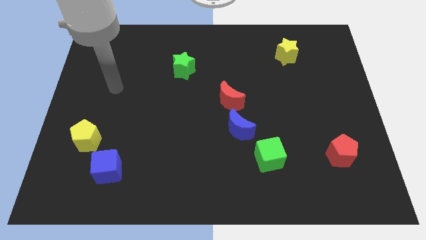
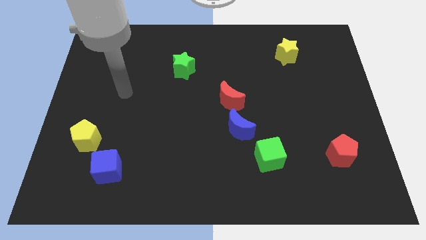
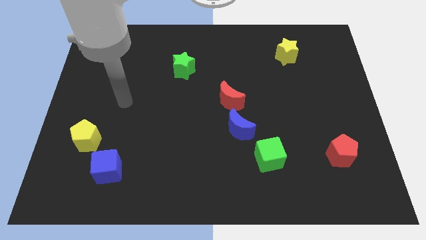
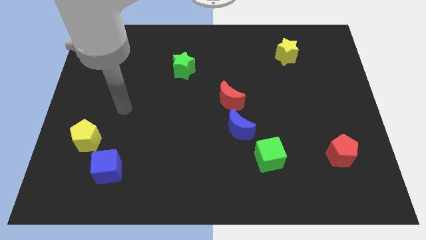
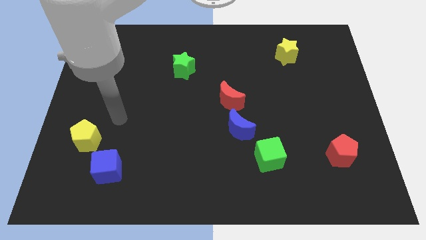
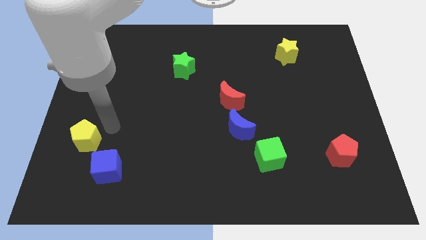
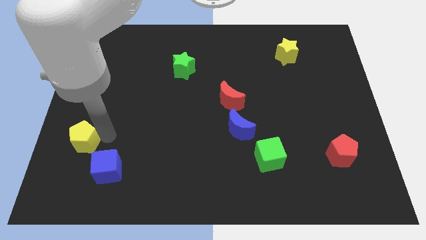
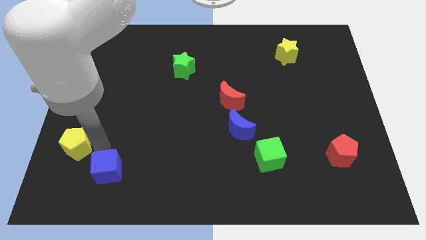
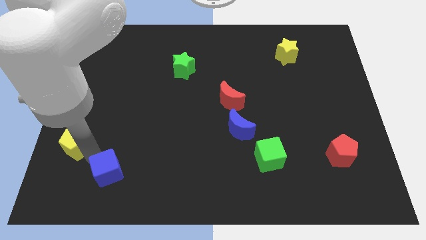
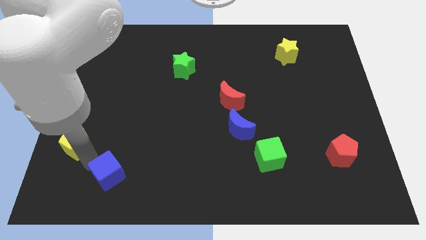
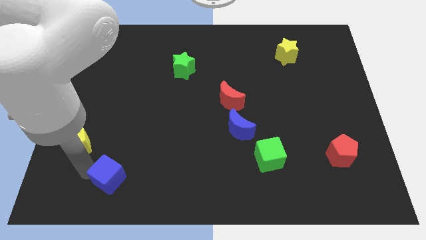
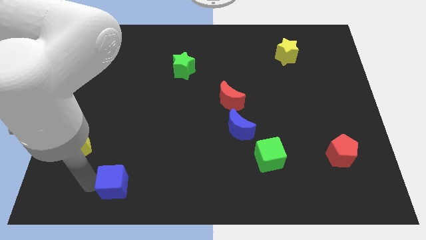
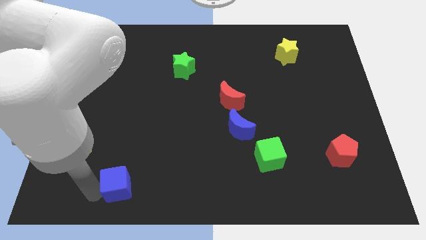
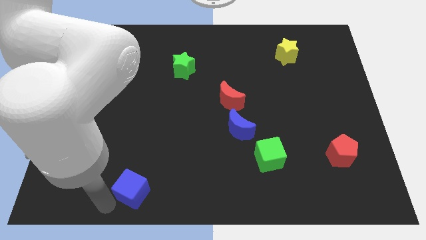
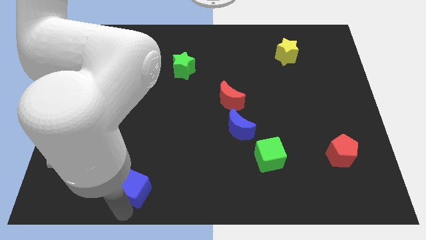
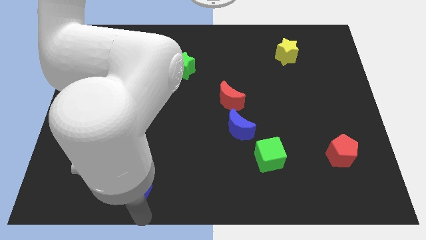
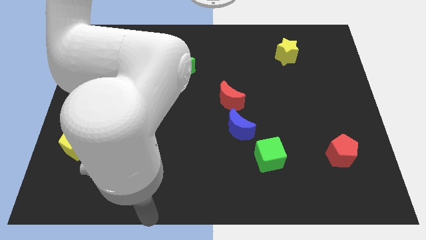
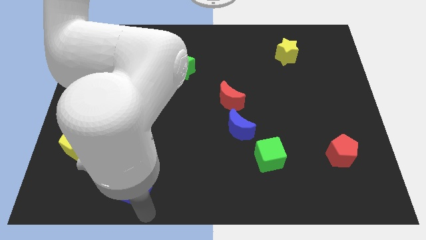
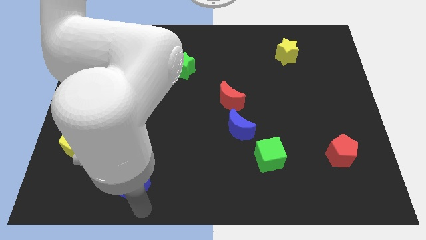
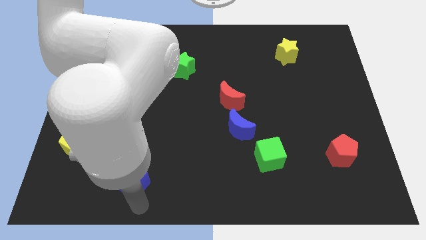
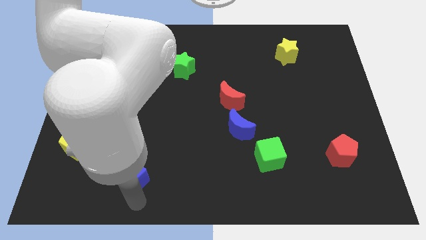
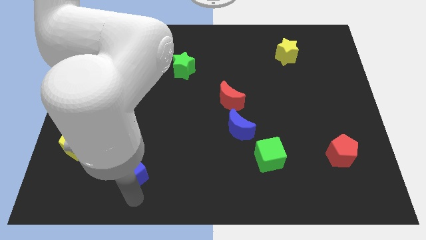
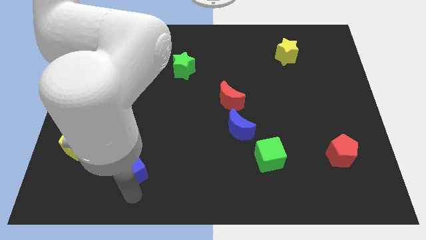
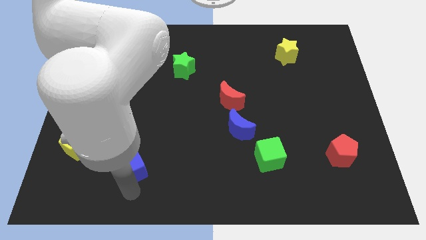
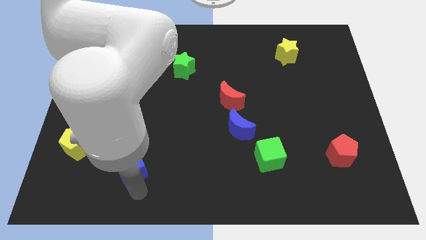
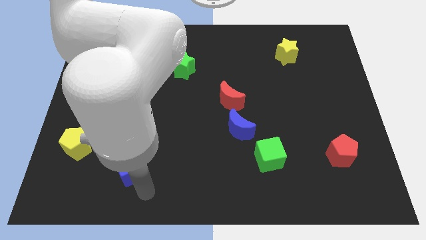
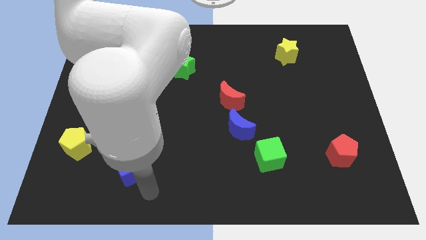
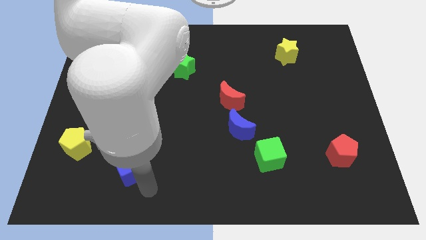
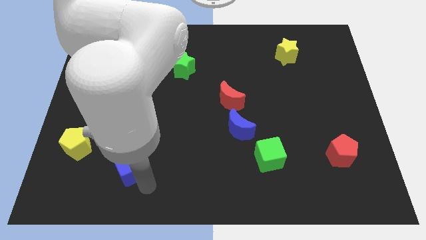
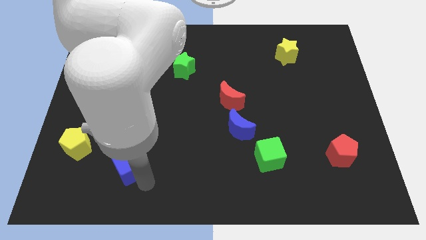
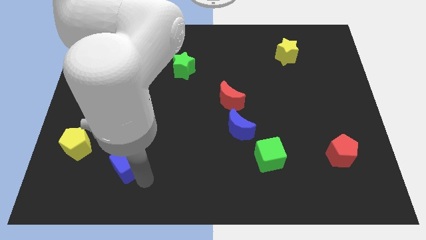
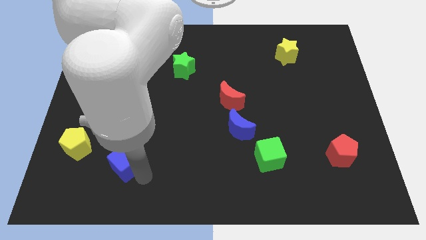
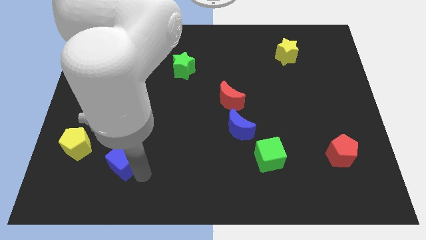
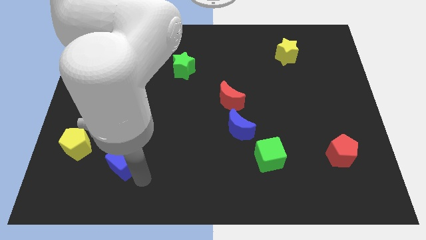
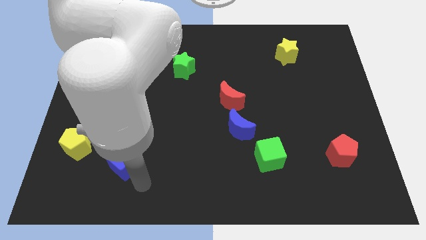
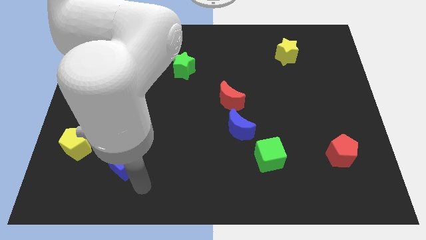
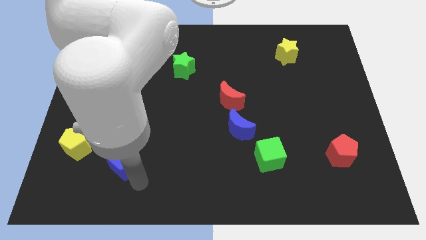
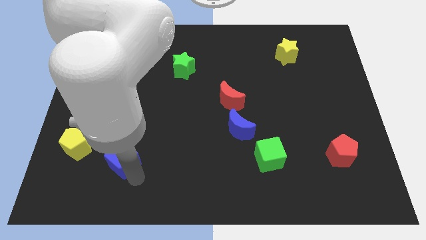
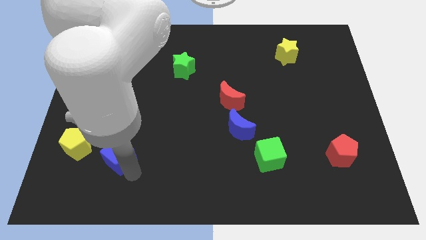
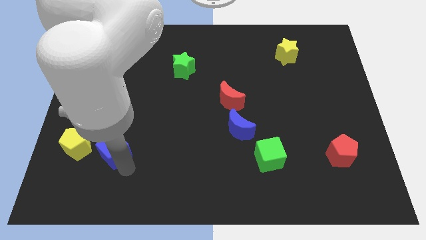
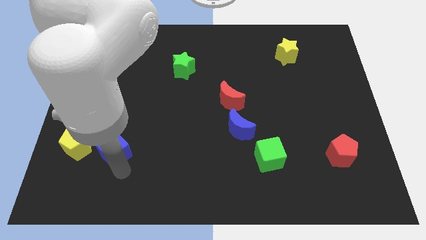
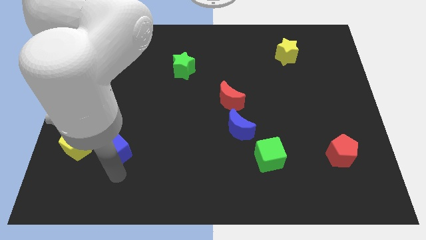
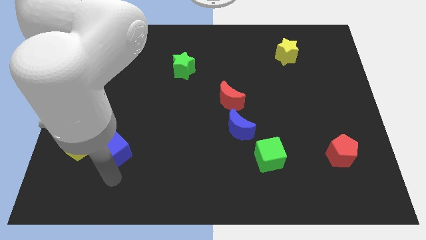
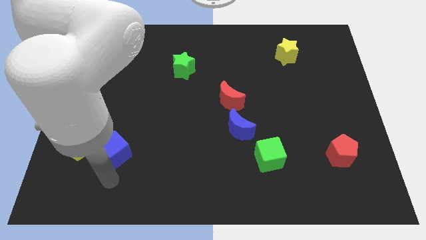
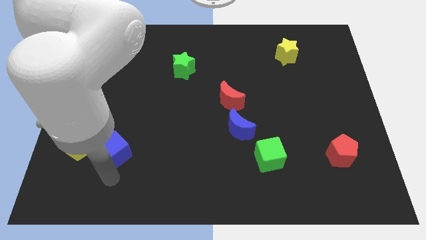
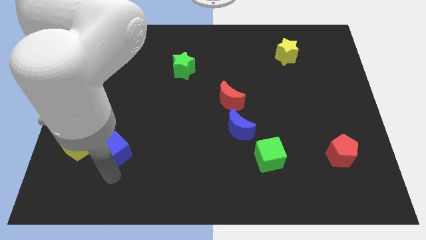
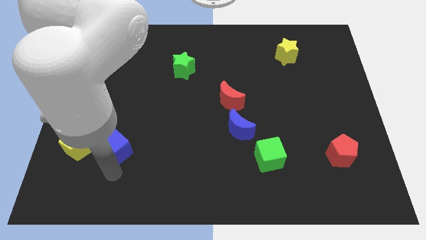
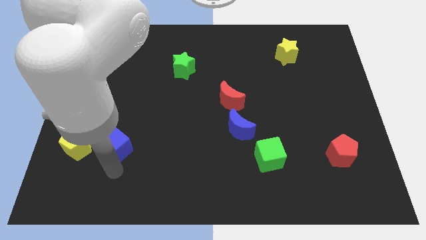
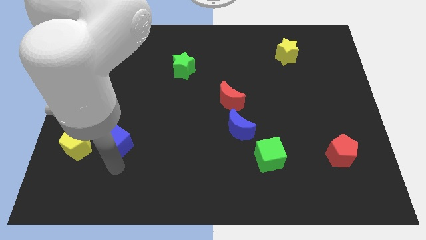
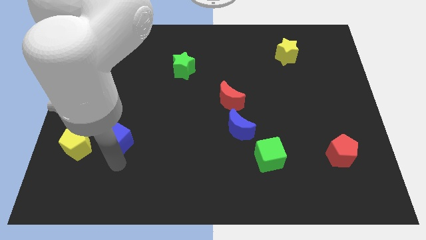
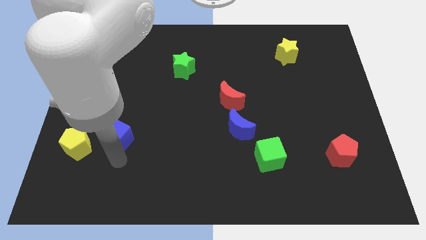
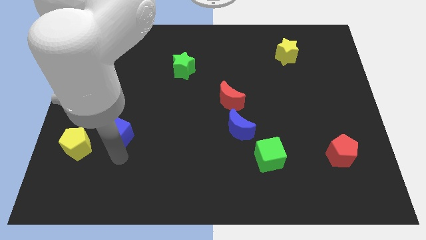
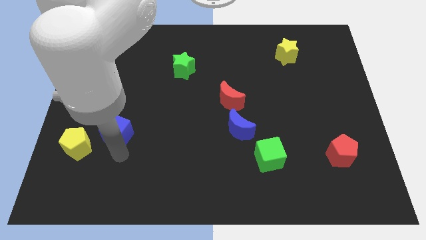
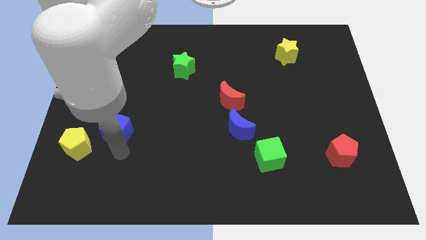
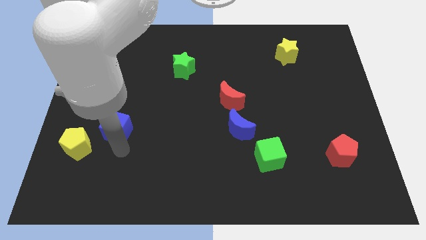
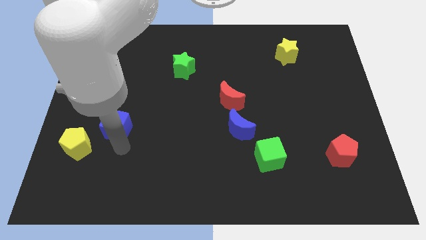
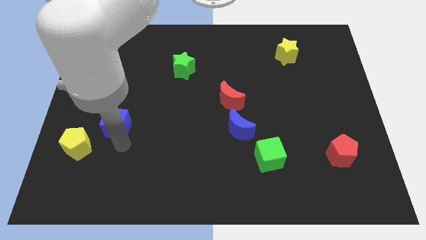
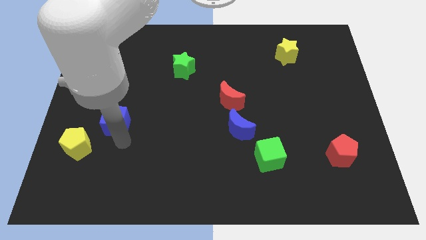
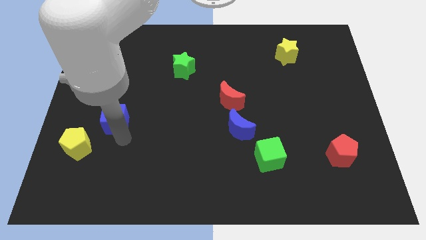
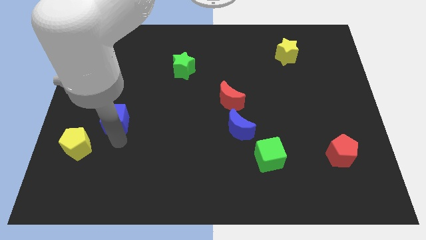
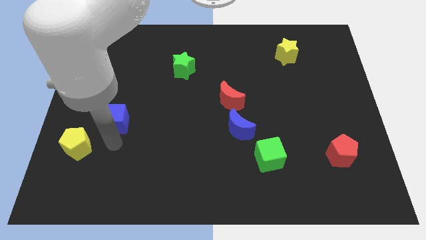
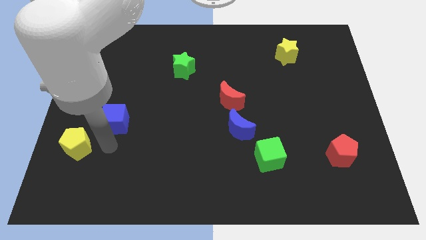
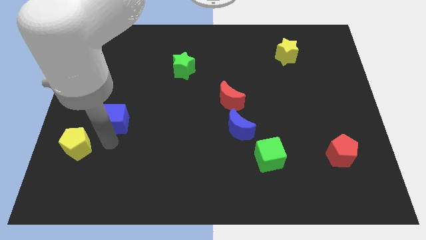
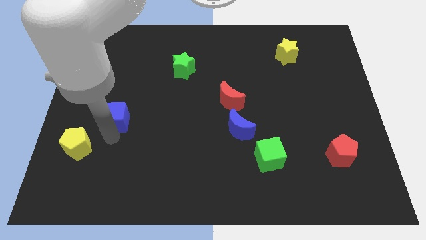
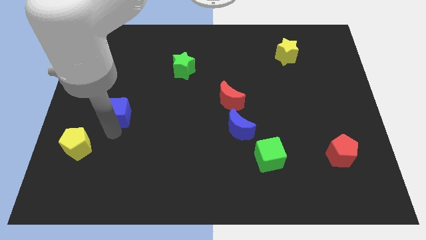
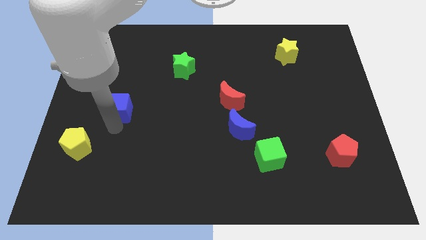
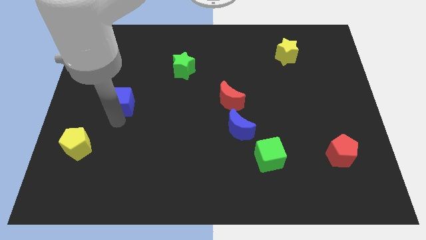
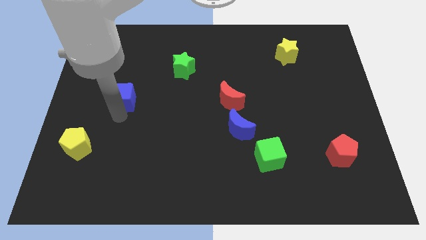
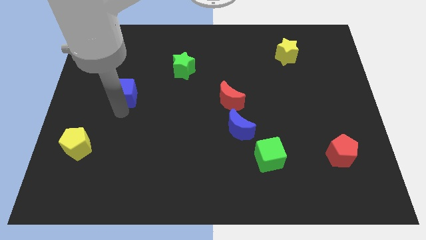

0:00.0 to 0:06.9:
push the blue cube up

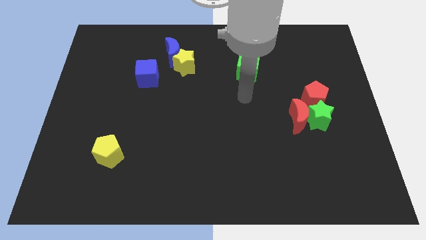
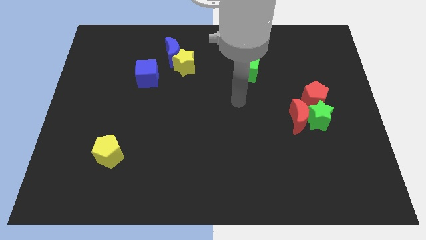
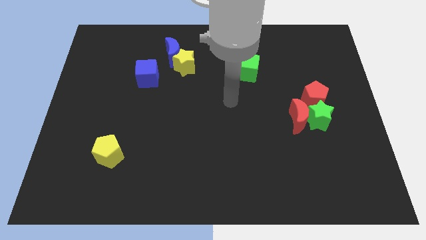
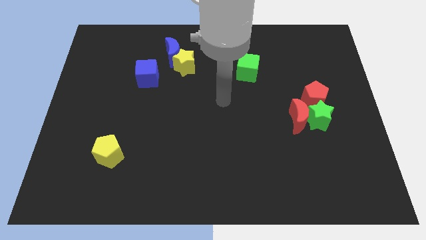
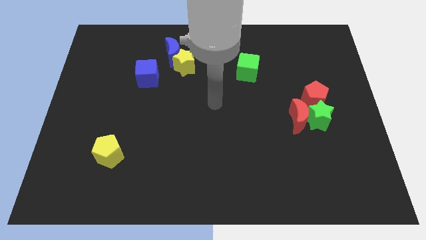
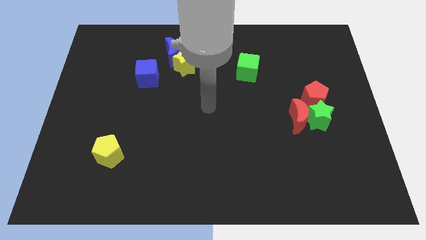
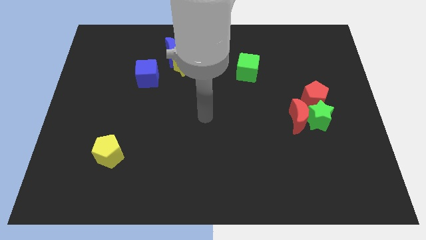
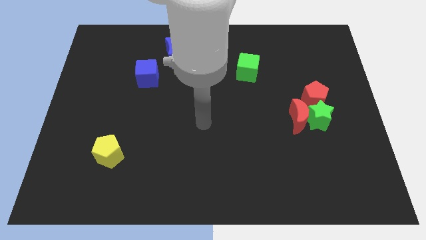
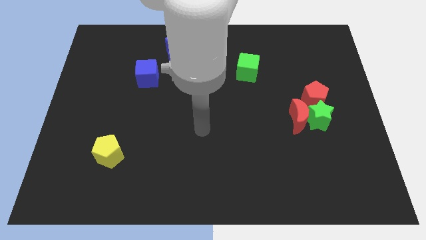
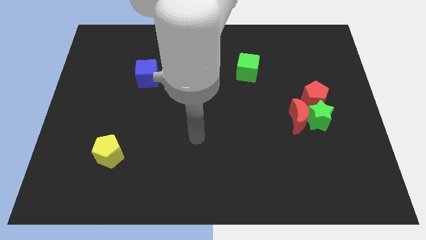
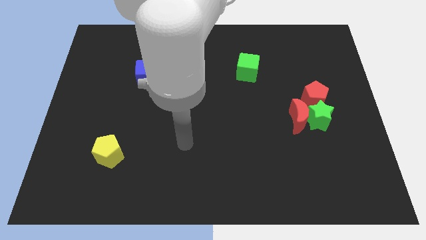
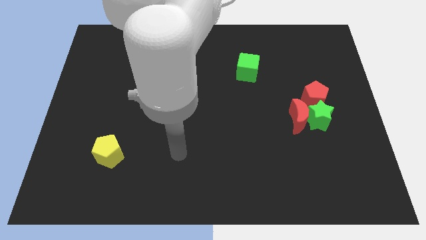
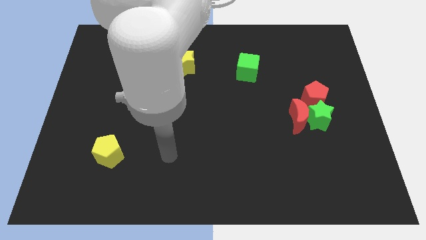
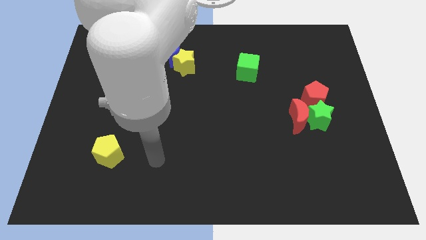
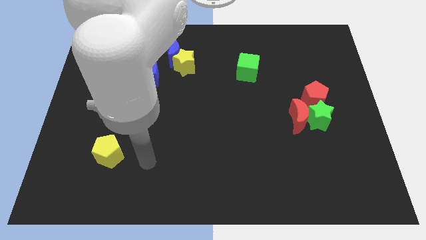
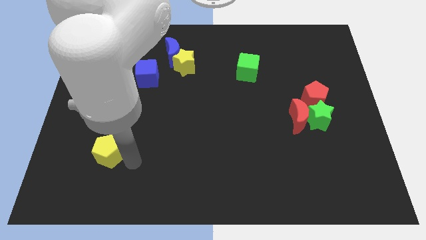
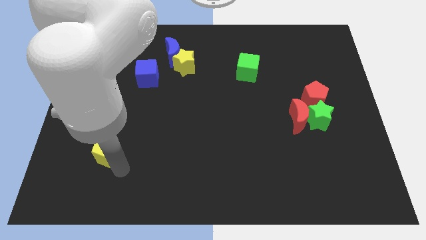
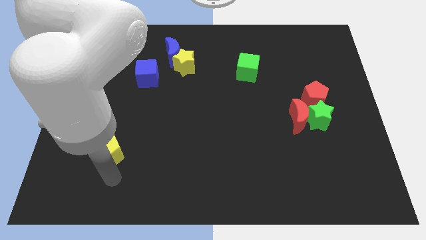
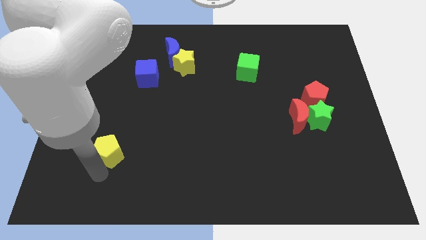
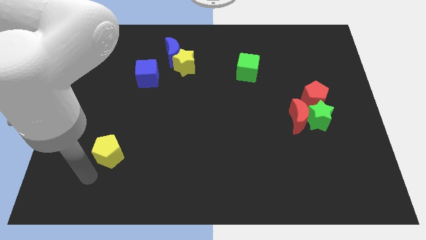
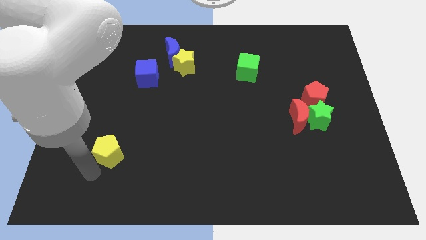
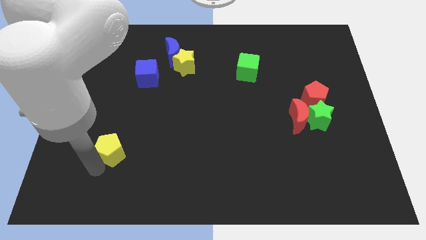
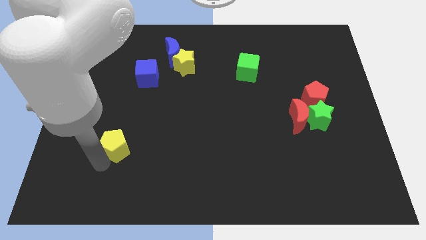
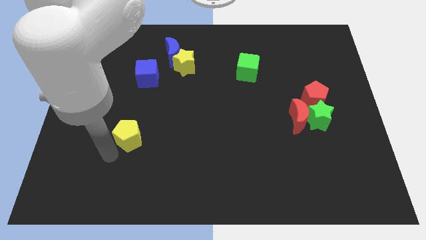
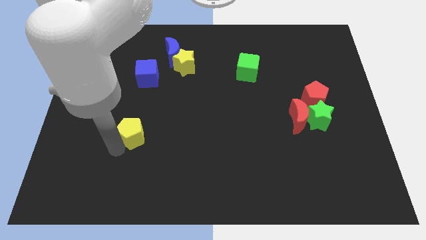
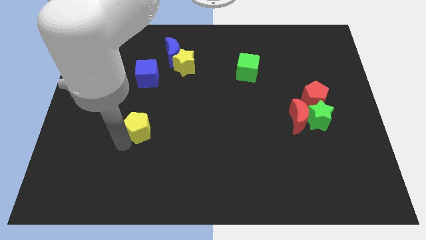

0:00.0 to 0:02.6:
slightly push the yellow pentagon up and then right
